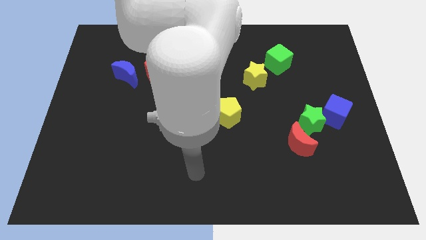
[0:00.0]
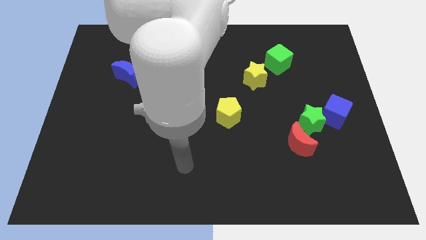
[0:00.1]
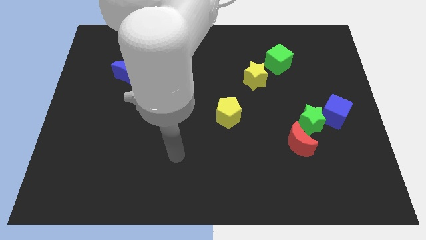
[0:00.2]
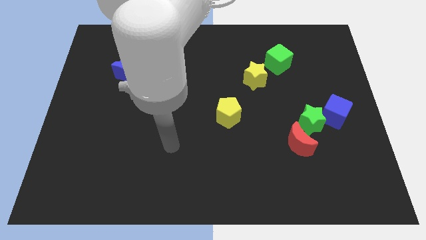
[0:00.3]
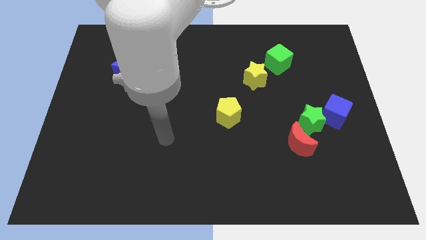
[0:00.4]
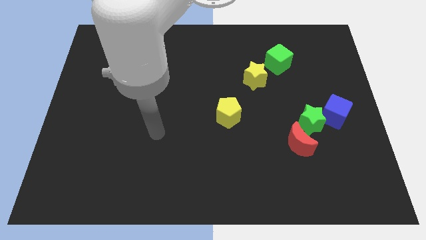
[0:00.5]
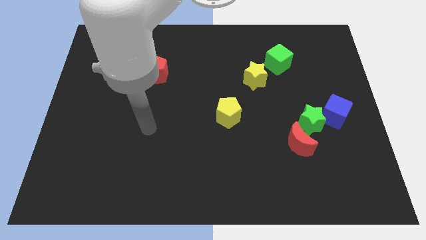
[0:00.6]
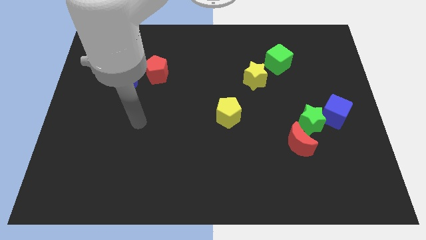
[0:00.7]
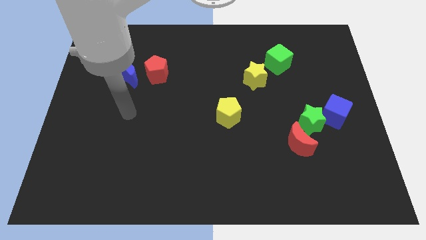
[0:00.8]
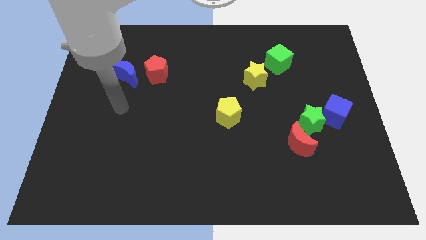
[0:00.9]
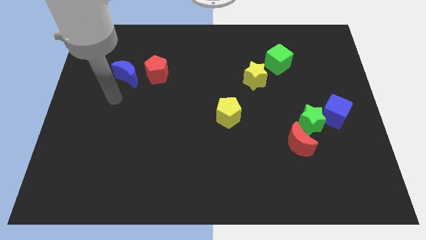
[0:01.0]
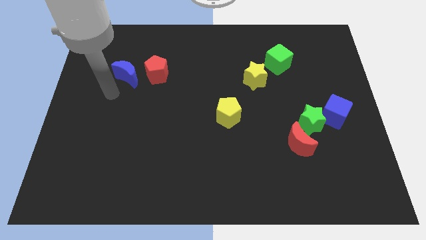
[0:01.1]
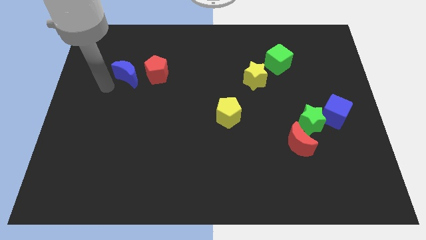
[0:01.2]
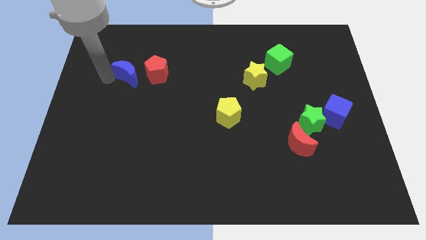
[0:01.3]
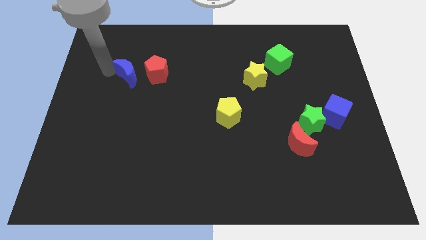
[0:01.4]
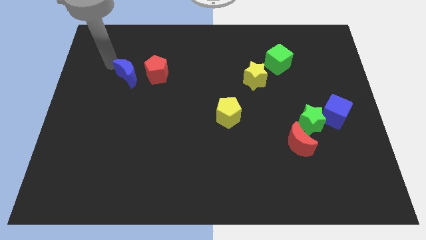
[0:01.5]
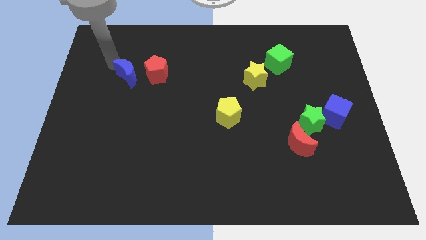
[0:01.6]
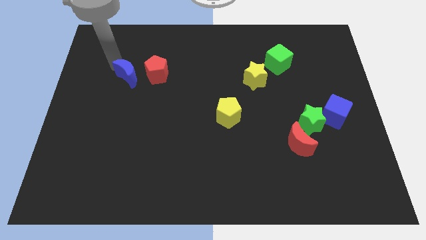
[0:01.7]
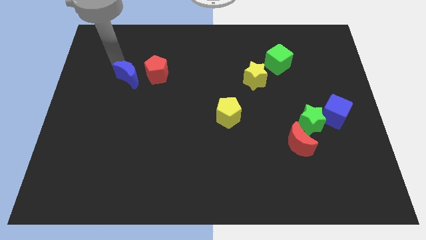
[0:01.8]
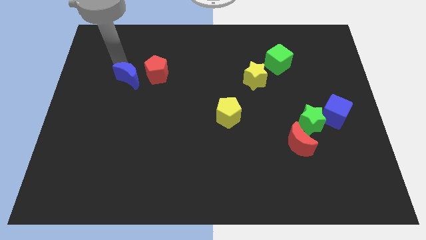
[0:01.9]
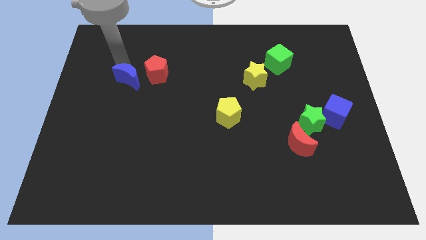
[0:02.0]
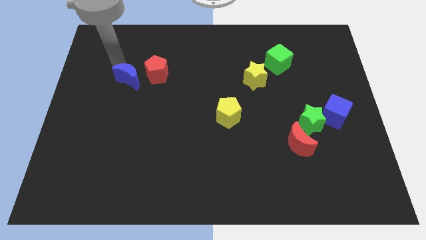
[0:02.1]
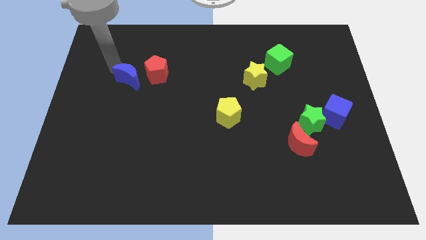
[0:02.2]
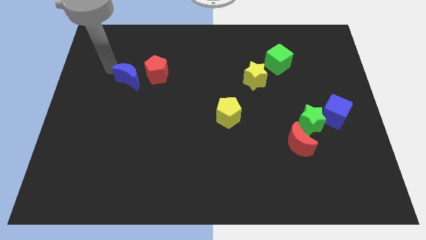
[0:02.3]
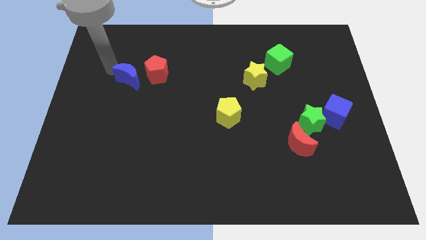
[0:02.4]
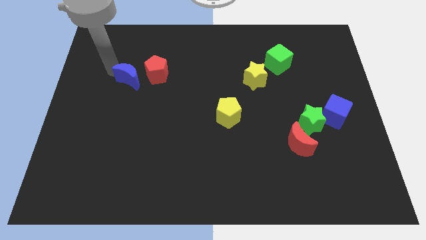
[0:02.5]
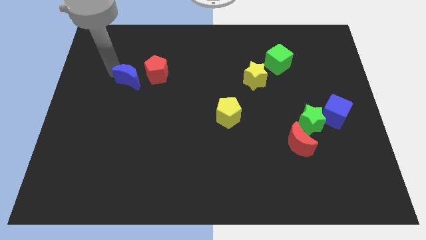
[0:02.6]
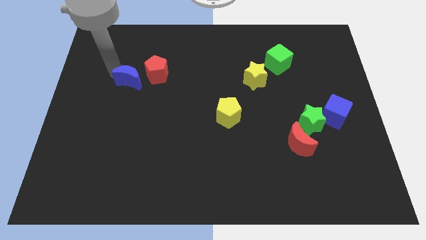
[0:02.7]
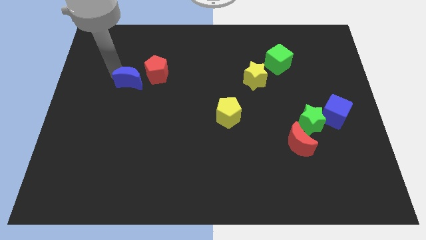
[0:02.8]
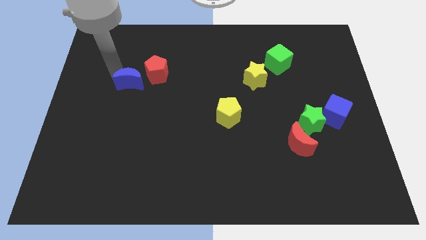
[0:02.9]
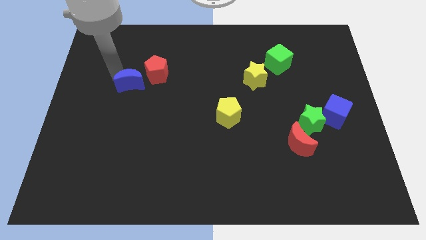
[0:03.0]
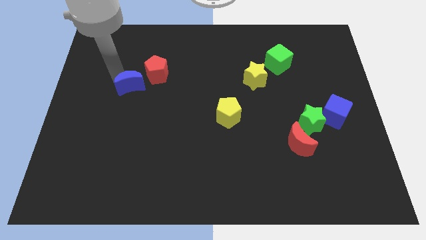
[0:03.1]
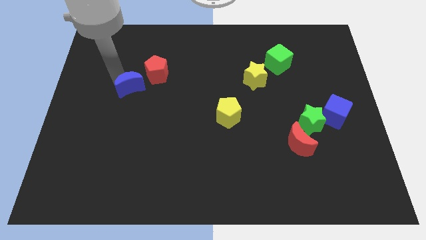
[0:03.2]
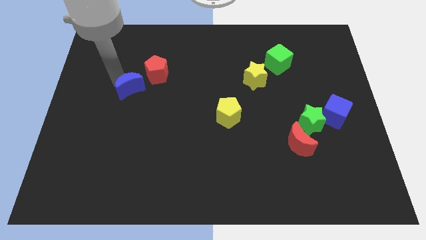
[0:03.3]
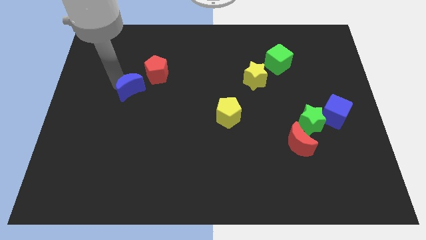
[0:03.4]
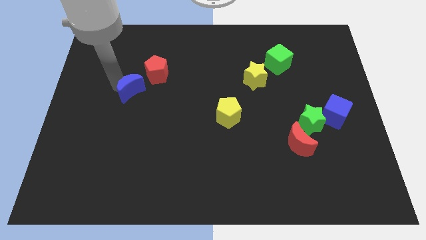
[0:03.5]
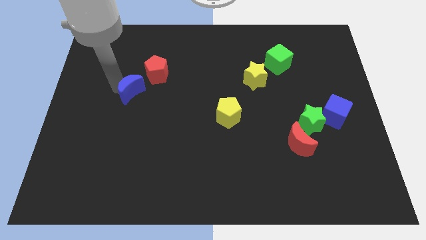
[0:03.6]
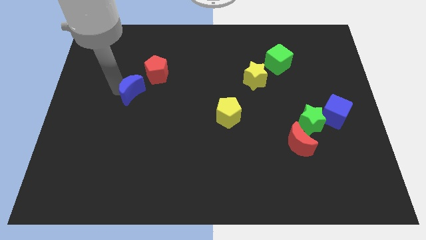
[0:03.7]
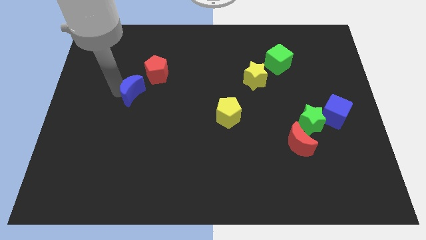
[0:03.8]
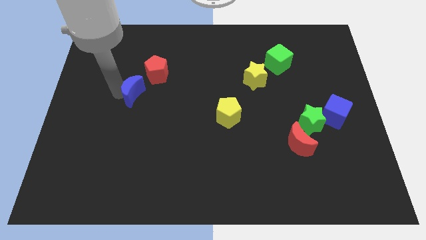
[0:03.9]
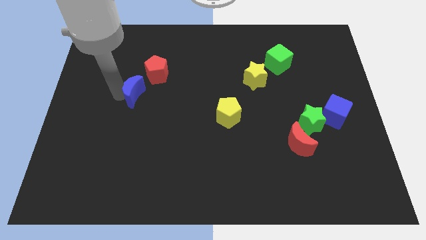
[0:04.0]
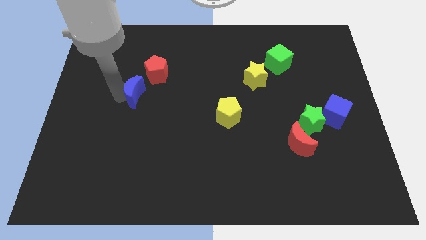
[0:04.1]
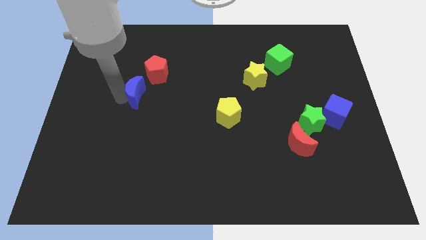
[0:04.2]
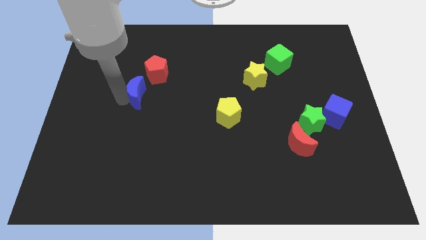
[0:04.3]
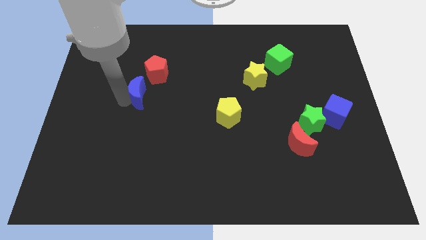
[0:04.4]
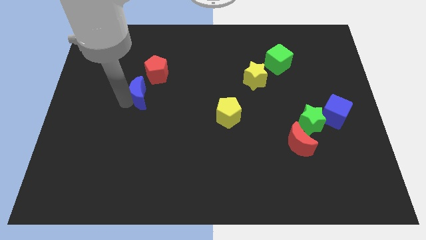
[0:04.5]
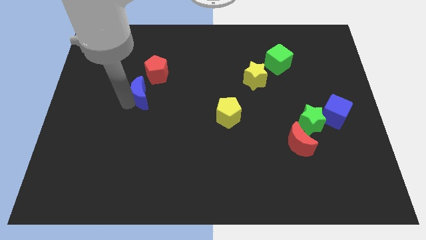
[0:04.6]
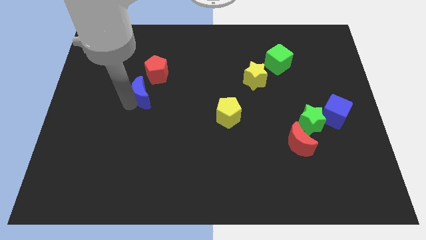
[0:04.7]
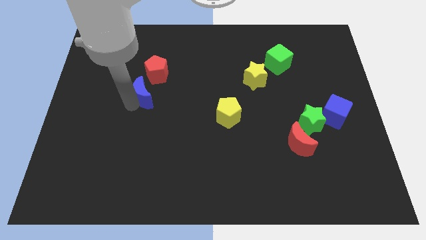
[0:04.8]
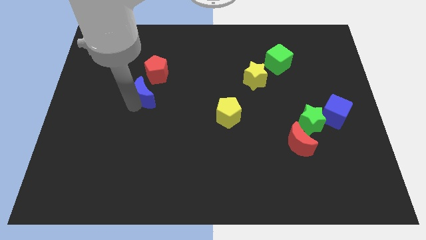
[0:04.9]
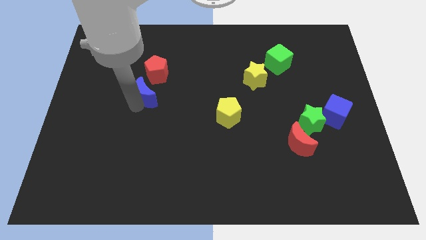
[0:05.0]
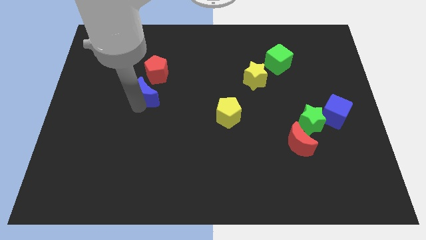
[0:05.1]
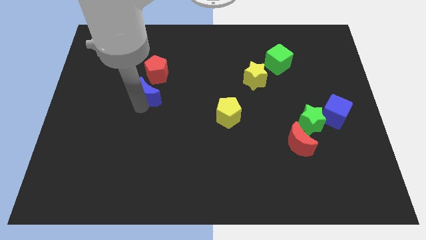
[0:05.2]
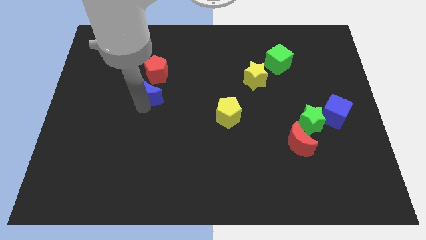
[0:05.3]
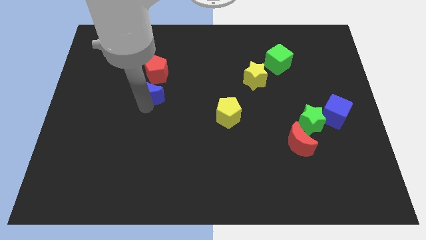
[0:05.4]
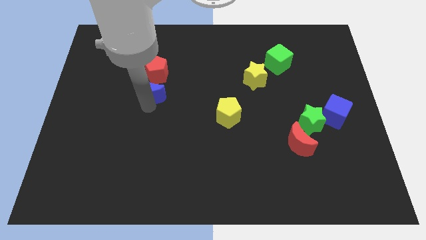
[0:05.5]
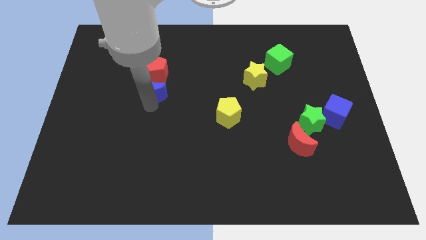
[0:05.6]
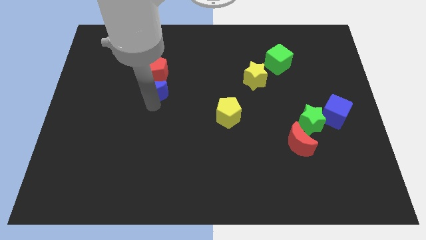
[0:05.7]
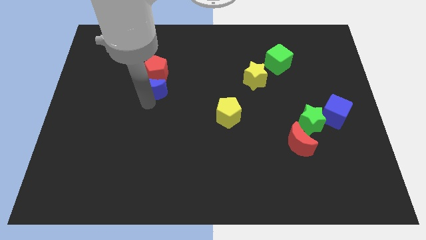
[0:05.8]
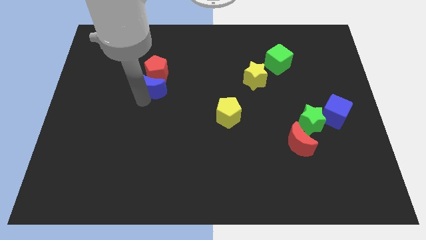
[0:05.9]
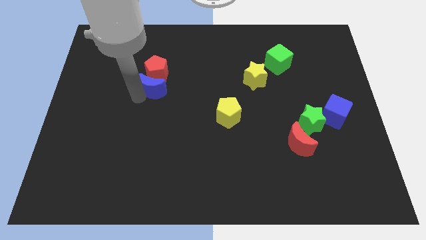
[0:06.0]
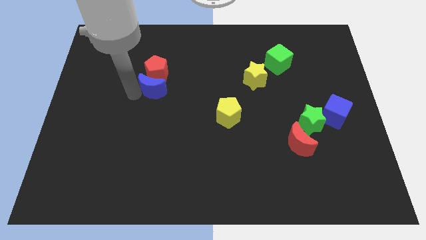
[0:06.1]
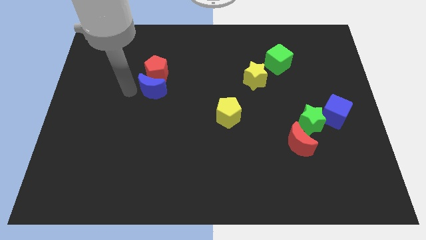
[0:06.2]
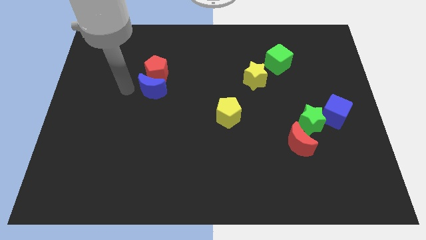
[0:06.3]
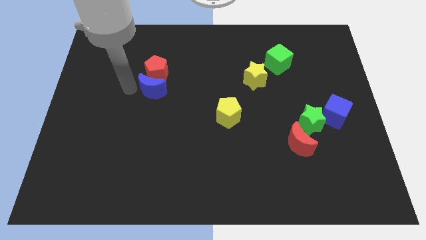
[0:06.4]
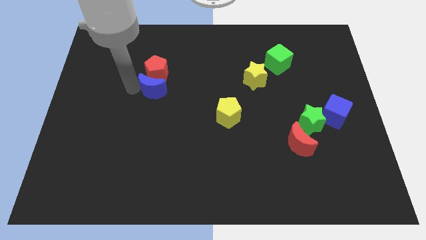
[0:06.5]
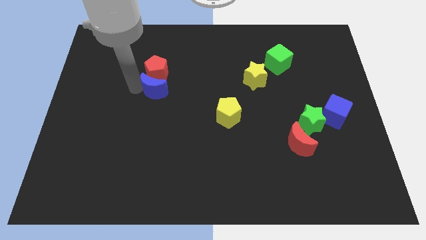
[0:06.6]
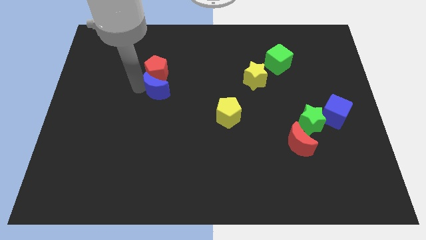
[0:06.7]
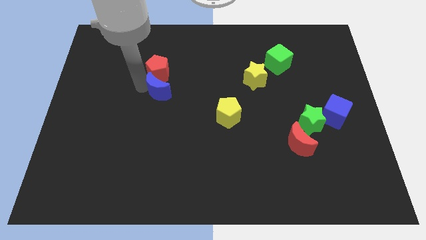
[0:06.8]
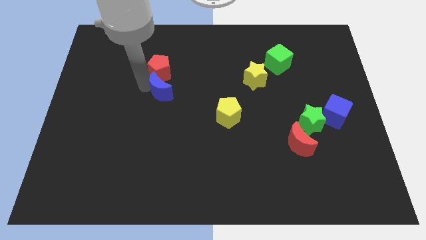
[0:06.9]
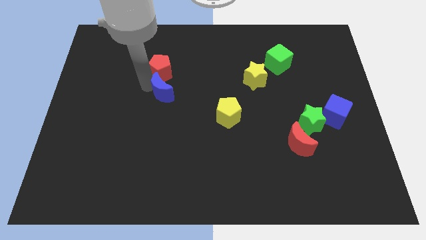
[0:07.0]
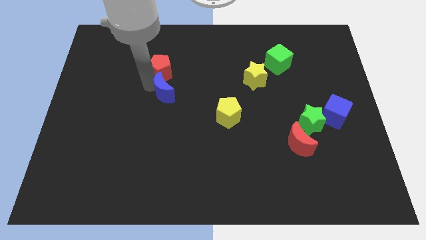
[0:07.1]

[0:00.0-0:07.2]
move the blue moon to the middle
